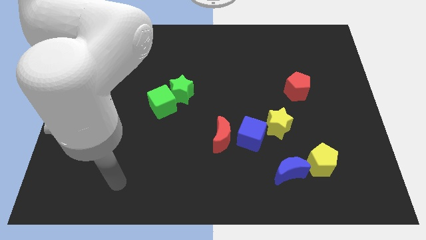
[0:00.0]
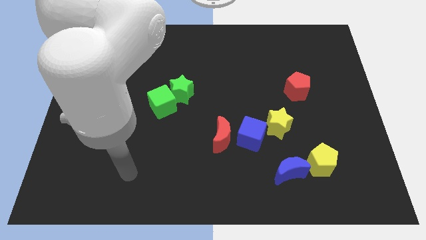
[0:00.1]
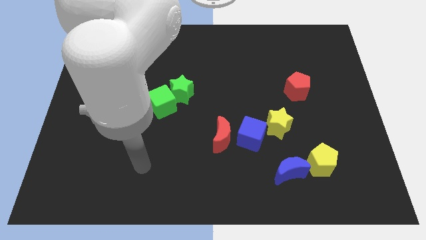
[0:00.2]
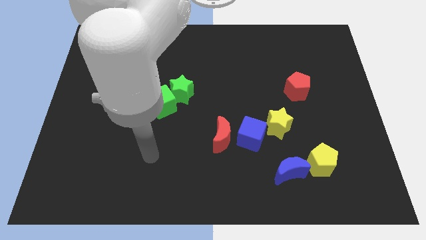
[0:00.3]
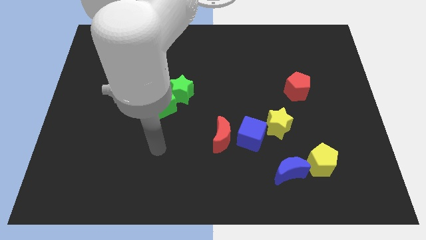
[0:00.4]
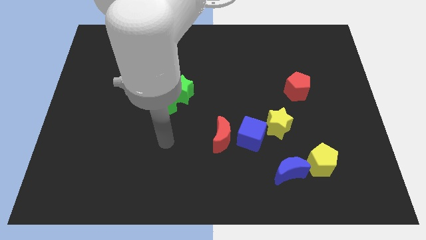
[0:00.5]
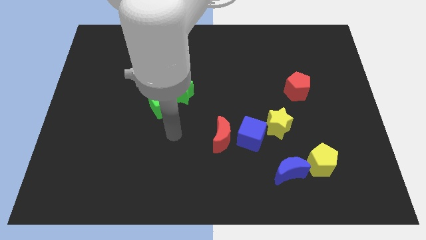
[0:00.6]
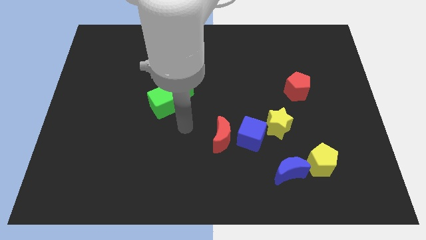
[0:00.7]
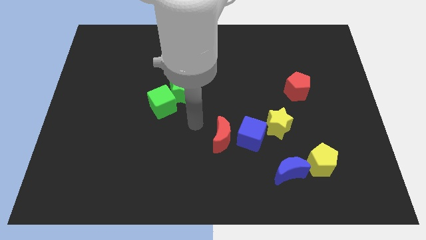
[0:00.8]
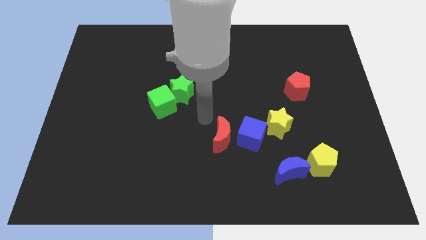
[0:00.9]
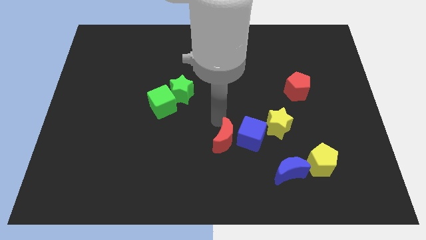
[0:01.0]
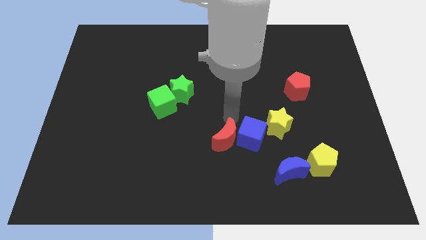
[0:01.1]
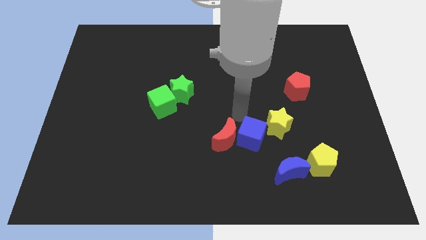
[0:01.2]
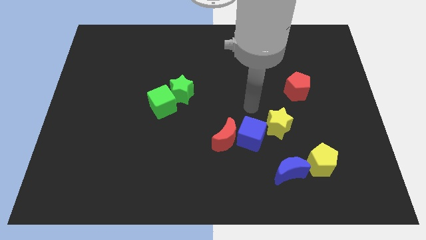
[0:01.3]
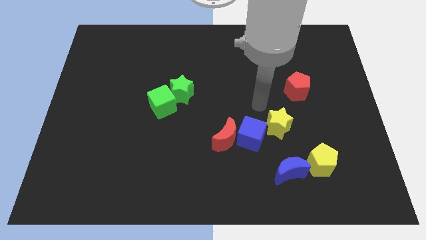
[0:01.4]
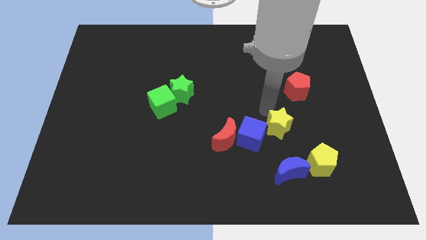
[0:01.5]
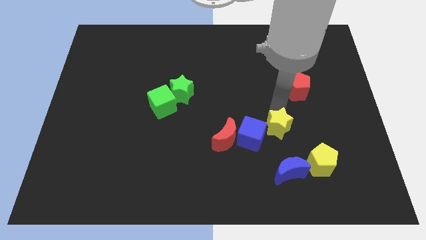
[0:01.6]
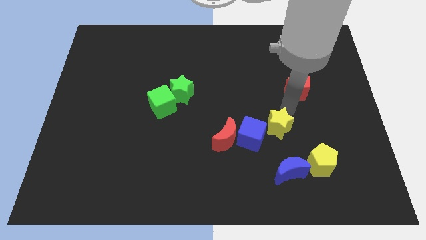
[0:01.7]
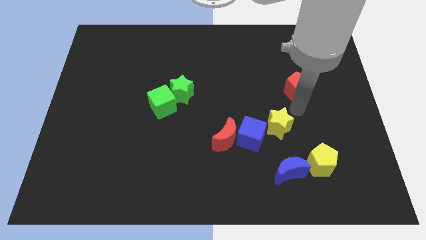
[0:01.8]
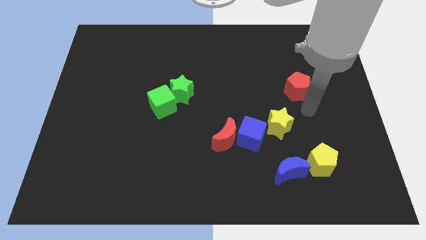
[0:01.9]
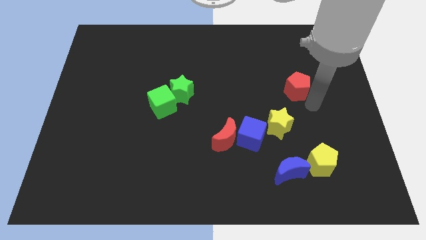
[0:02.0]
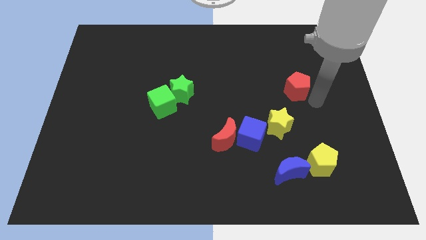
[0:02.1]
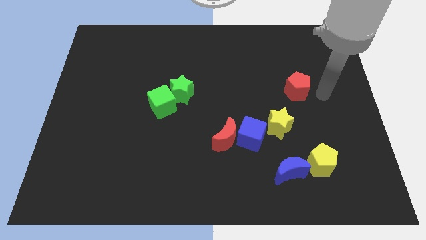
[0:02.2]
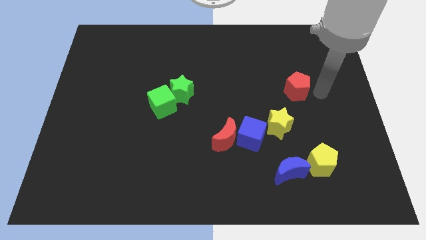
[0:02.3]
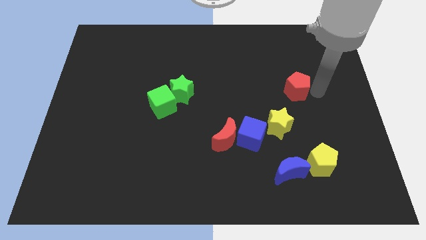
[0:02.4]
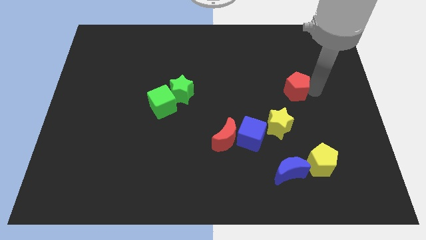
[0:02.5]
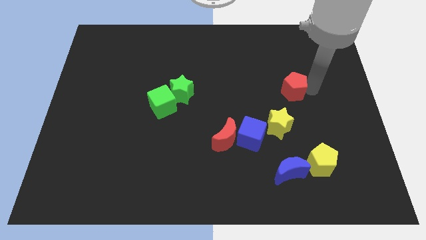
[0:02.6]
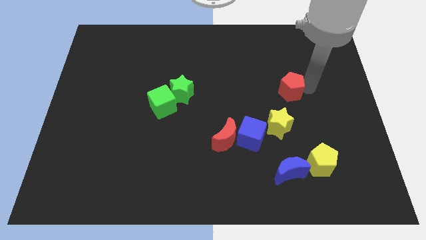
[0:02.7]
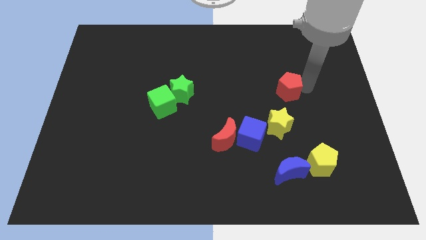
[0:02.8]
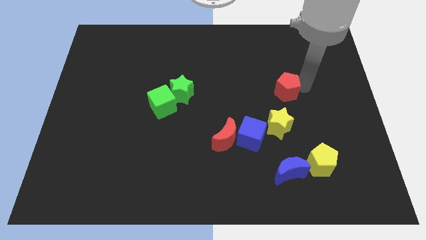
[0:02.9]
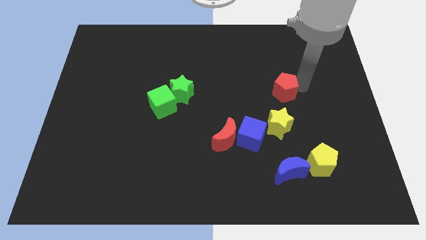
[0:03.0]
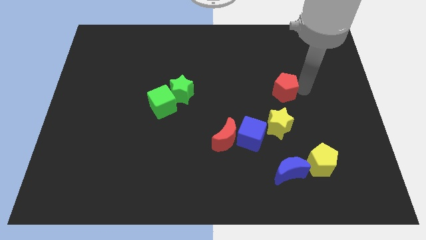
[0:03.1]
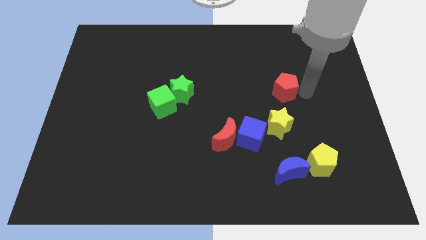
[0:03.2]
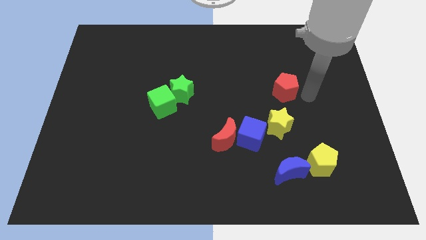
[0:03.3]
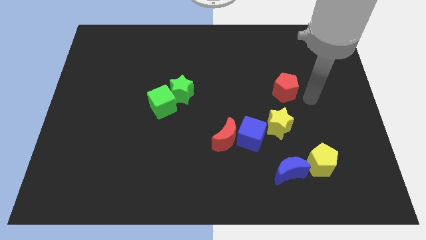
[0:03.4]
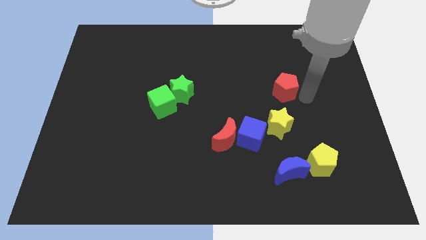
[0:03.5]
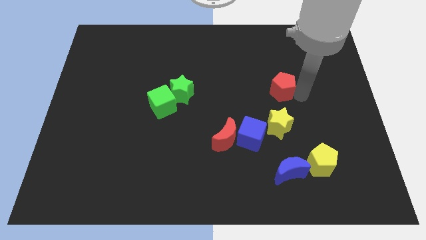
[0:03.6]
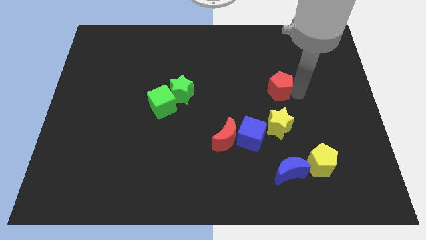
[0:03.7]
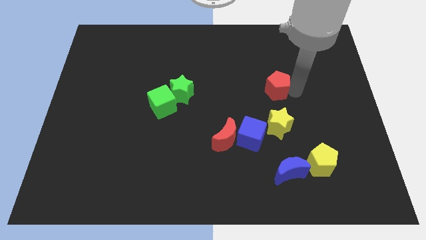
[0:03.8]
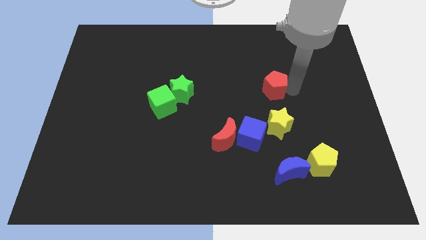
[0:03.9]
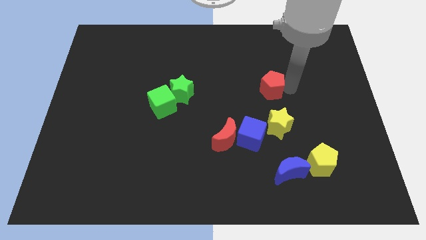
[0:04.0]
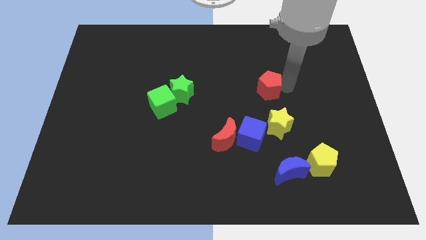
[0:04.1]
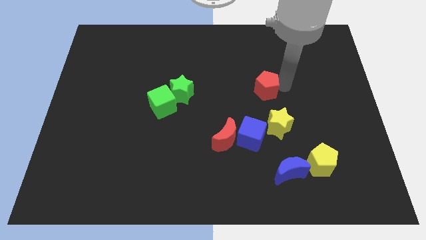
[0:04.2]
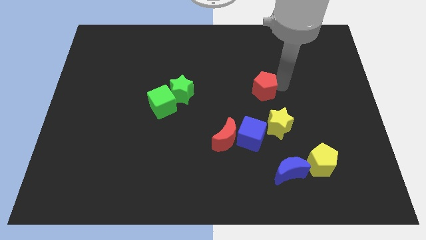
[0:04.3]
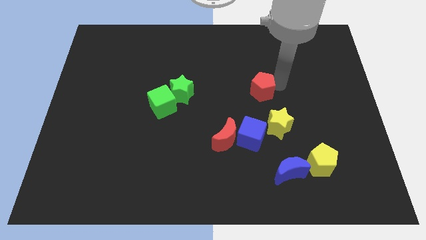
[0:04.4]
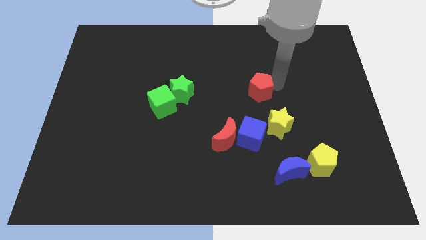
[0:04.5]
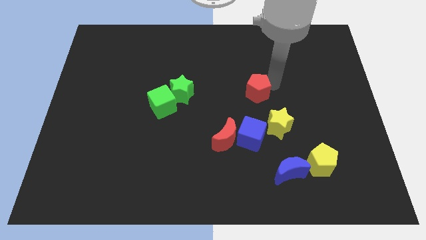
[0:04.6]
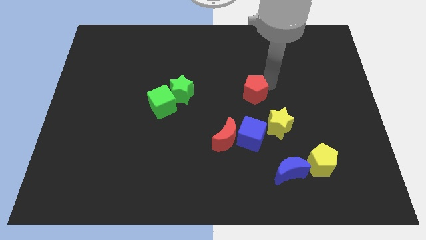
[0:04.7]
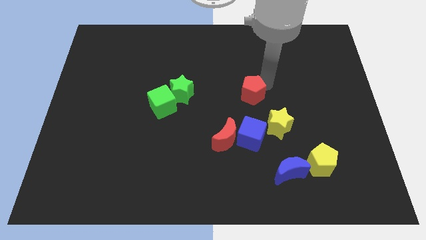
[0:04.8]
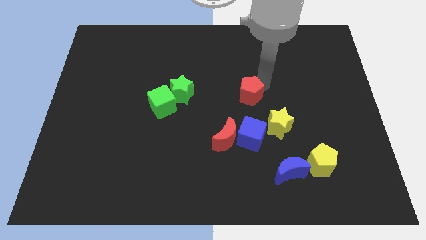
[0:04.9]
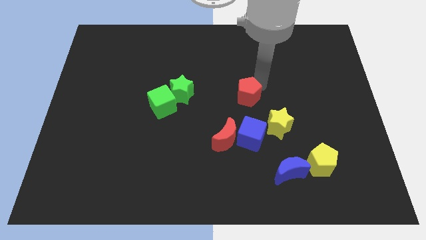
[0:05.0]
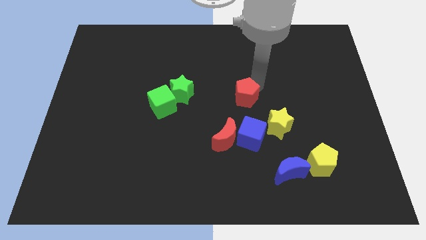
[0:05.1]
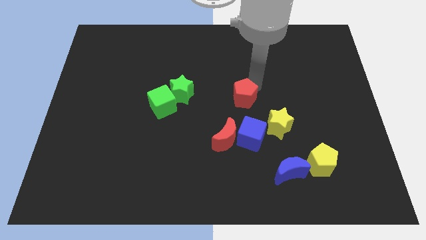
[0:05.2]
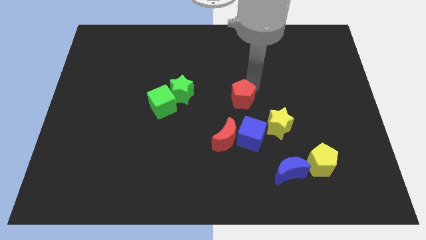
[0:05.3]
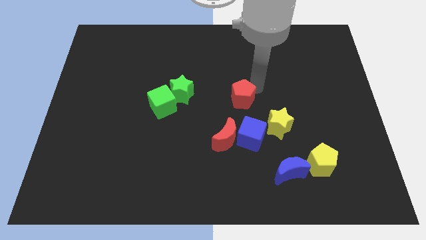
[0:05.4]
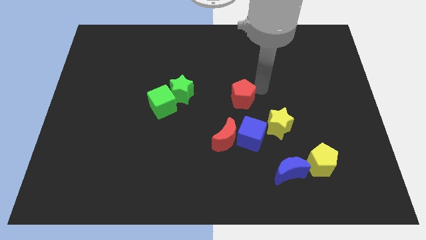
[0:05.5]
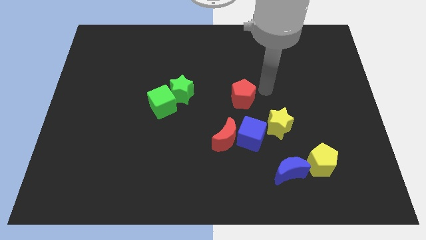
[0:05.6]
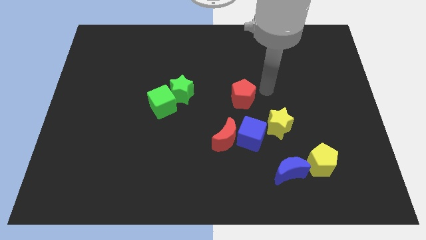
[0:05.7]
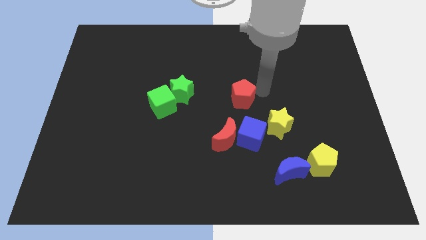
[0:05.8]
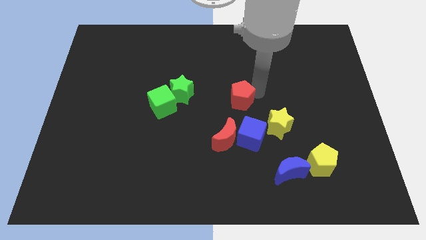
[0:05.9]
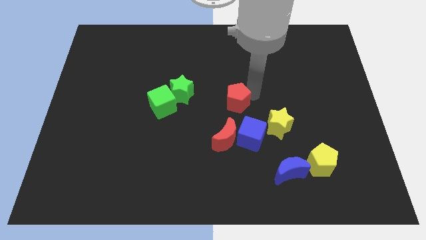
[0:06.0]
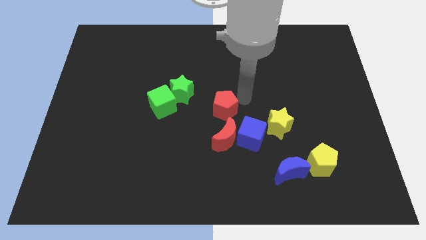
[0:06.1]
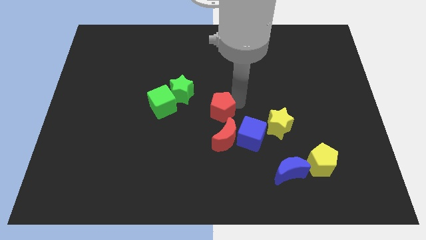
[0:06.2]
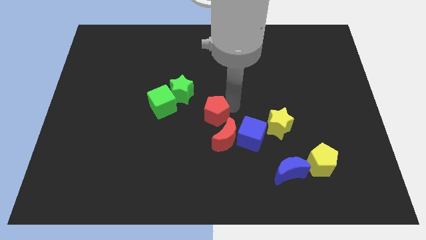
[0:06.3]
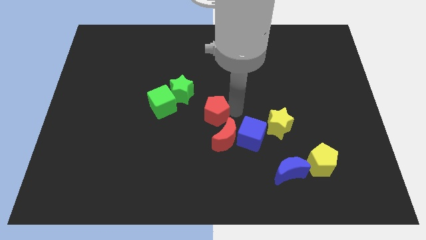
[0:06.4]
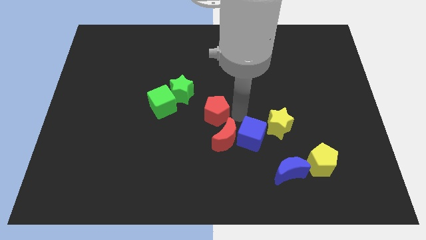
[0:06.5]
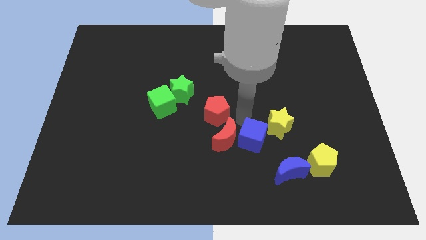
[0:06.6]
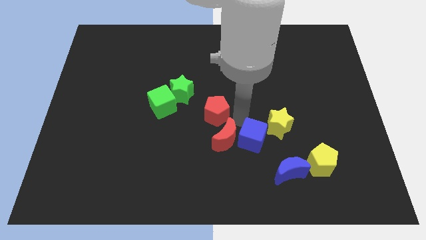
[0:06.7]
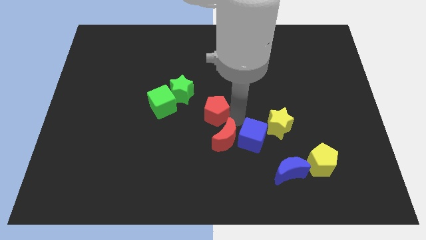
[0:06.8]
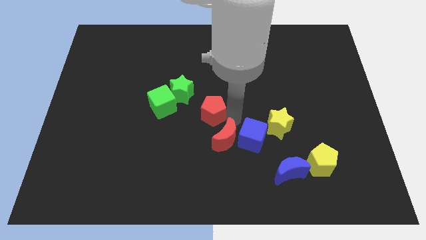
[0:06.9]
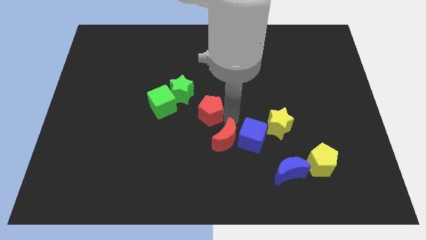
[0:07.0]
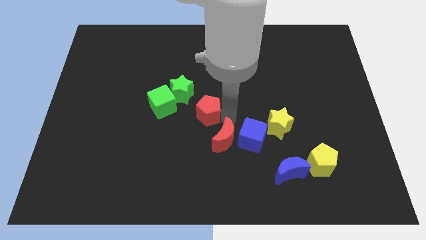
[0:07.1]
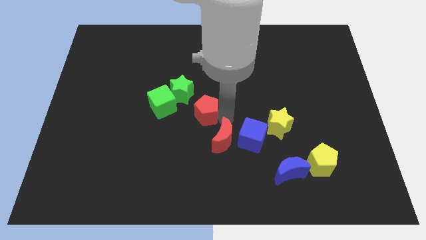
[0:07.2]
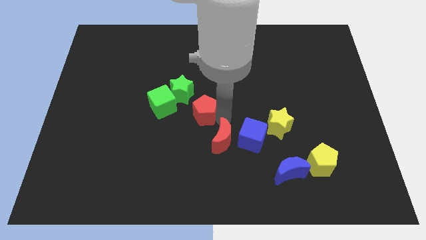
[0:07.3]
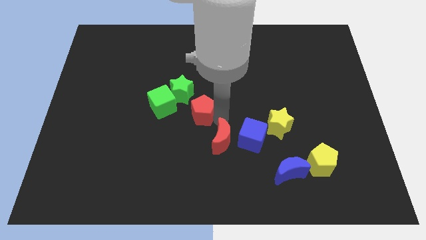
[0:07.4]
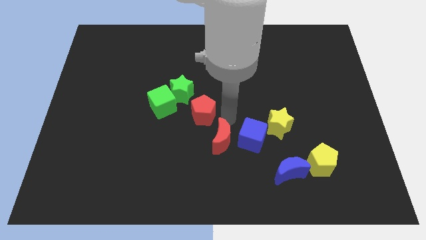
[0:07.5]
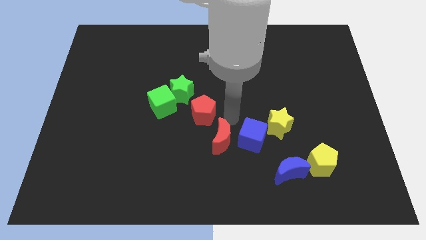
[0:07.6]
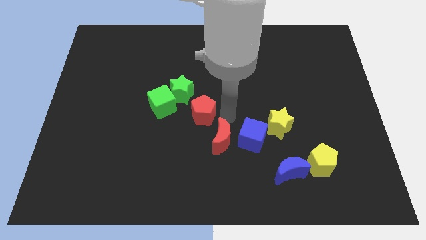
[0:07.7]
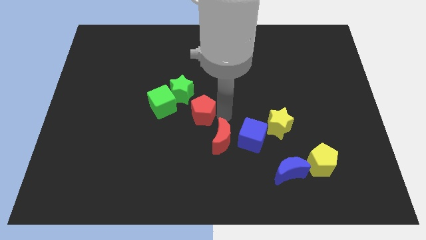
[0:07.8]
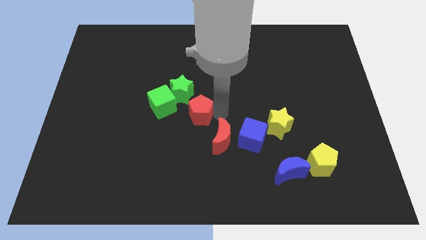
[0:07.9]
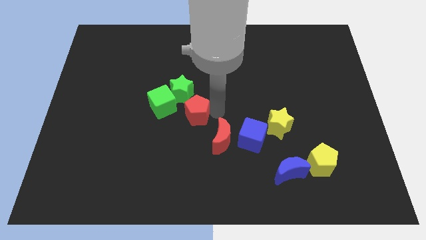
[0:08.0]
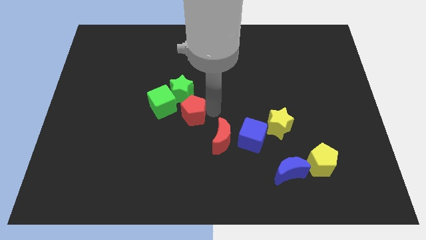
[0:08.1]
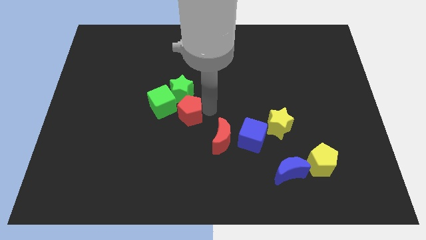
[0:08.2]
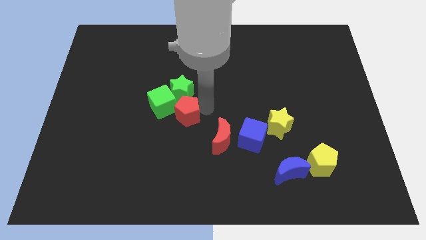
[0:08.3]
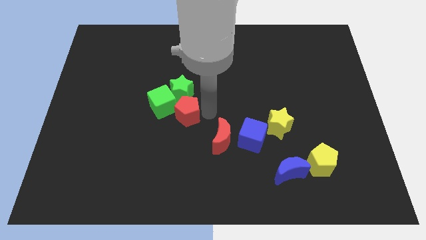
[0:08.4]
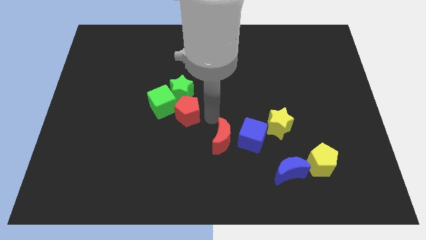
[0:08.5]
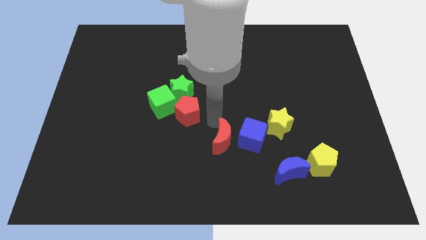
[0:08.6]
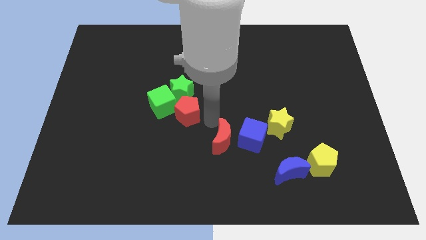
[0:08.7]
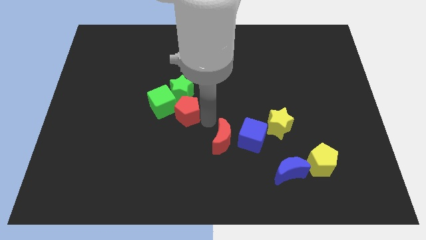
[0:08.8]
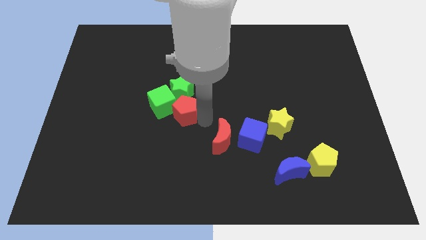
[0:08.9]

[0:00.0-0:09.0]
move the red pentagon to the green cube
